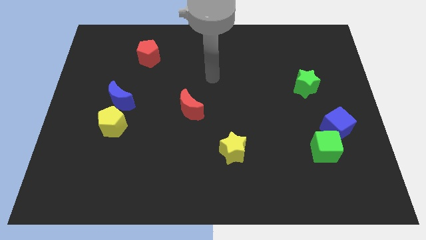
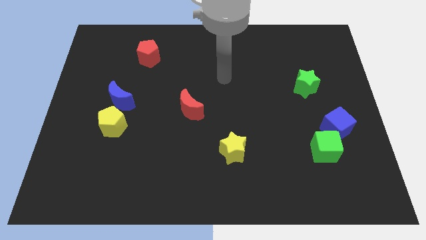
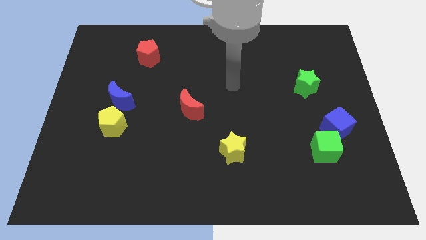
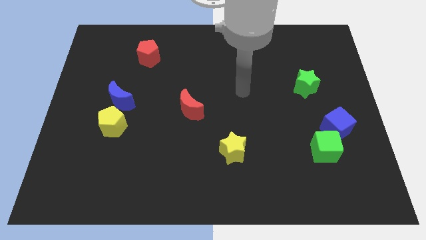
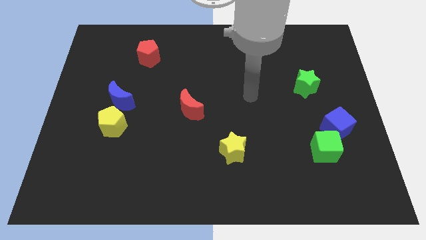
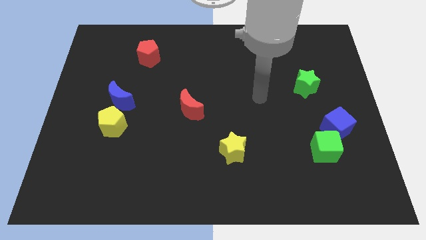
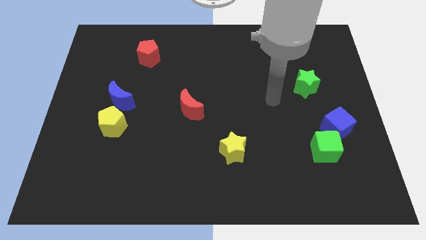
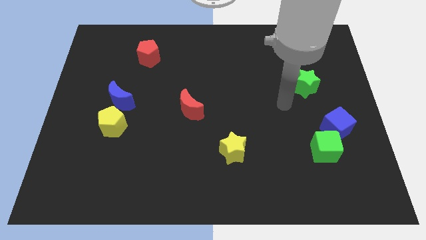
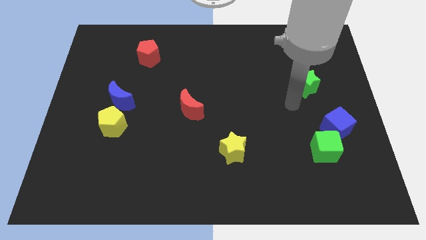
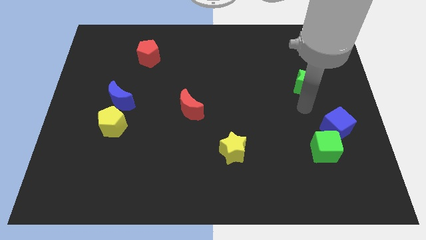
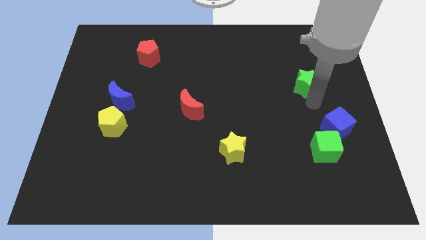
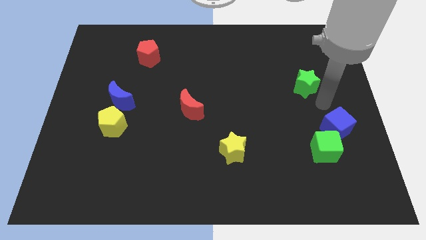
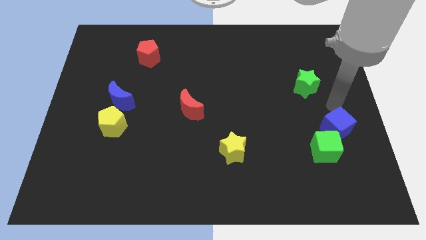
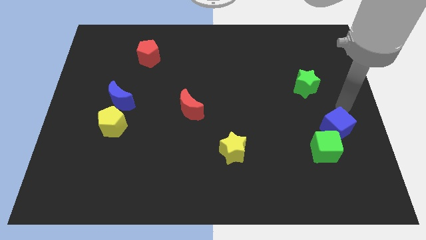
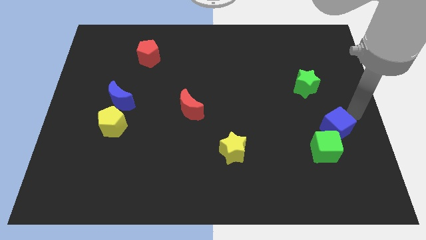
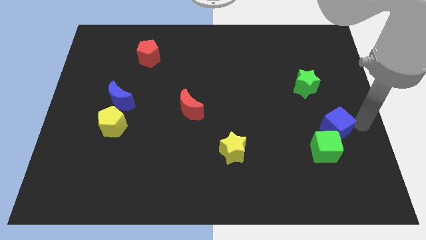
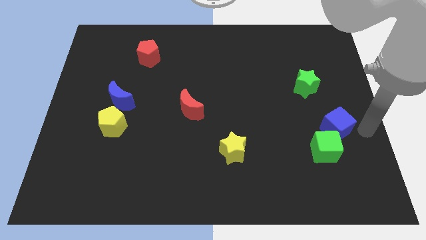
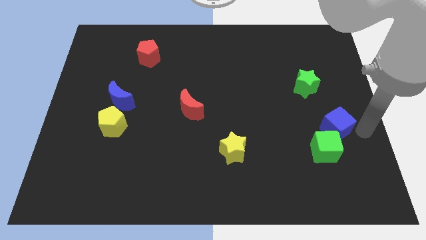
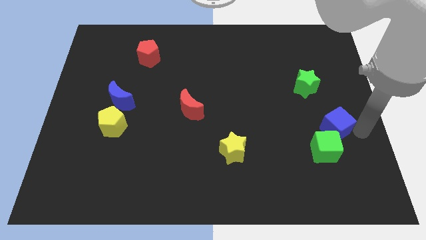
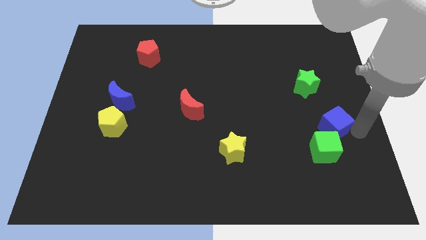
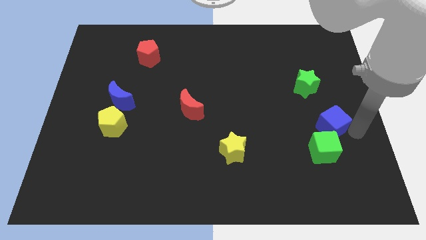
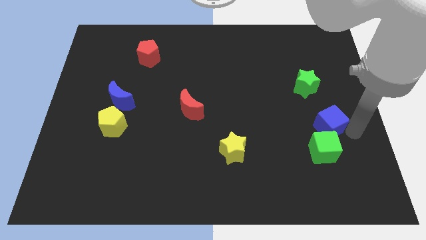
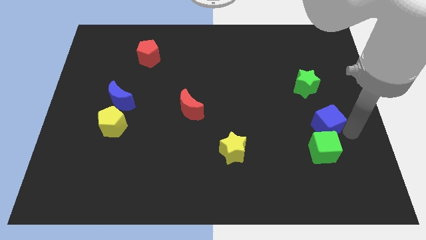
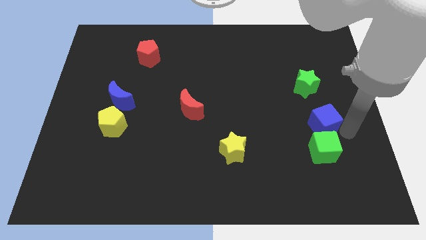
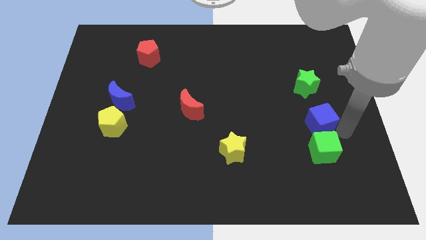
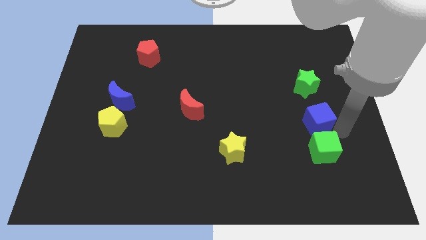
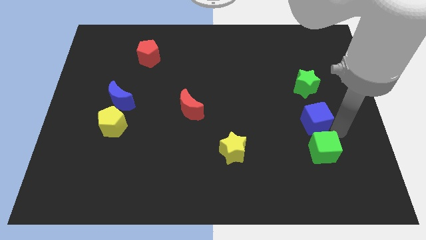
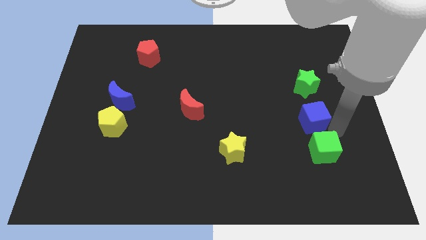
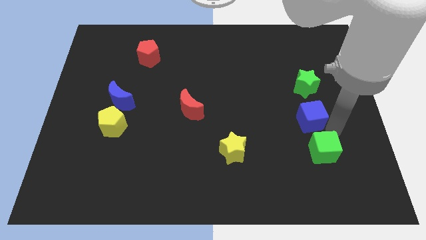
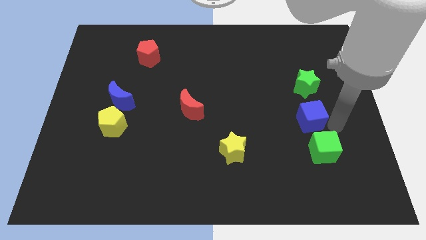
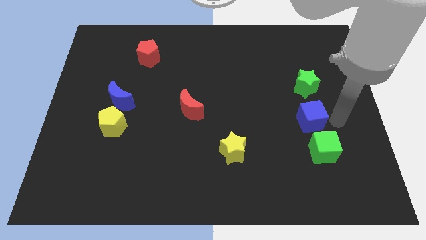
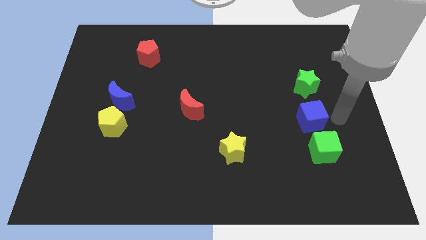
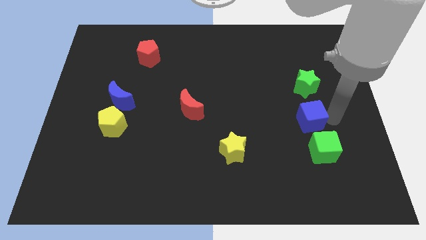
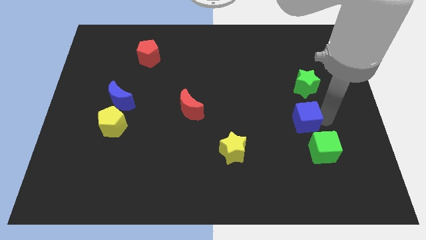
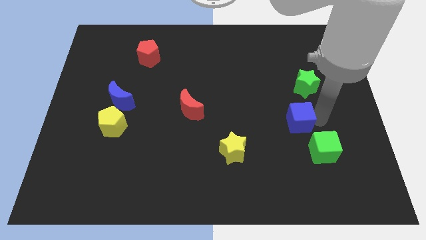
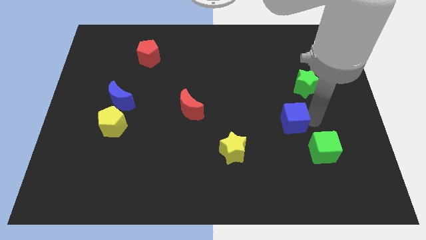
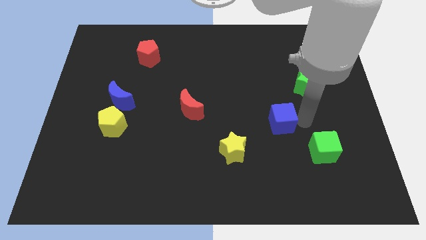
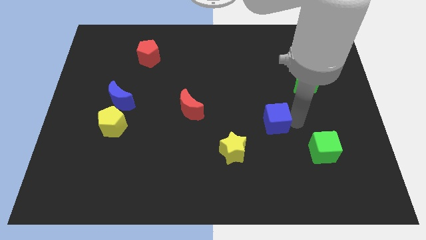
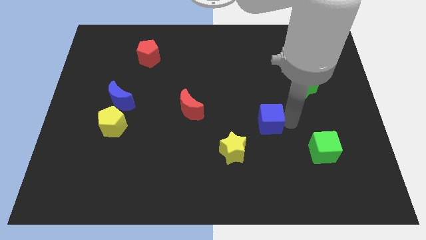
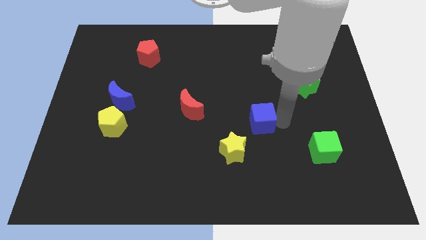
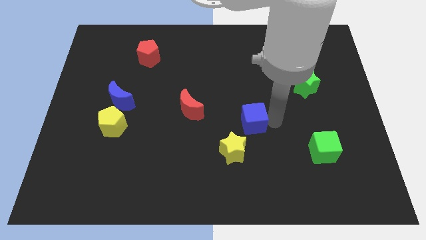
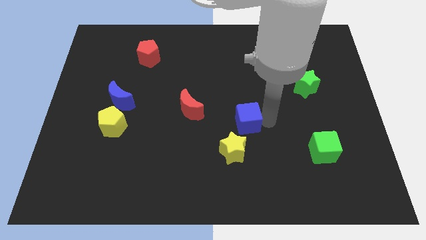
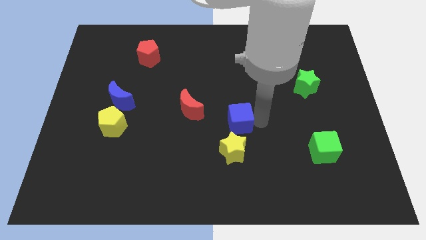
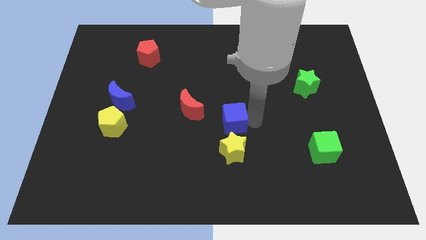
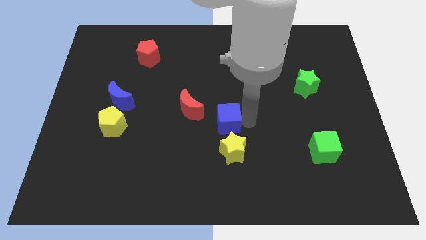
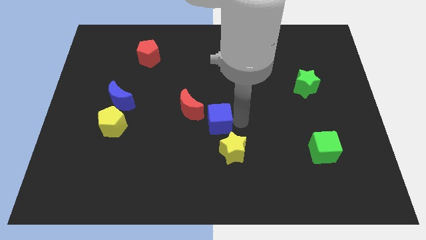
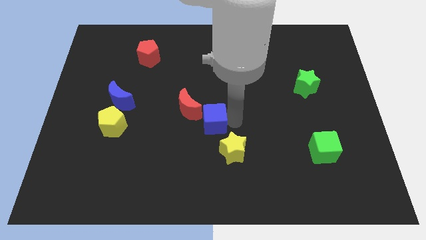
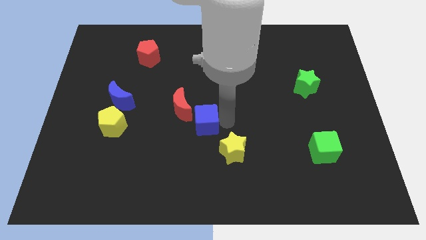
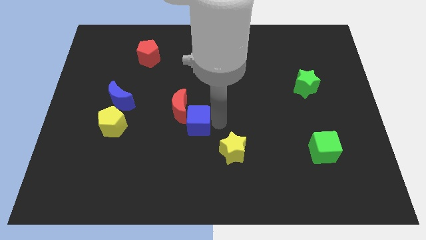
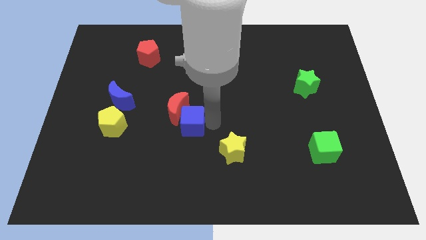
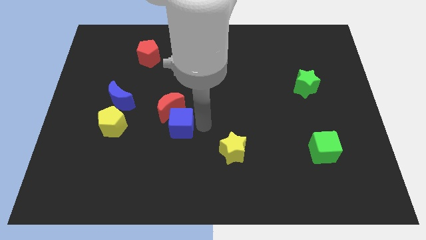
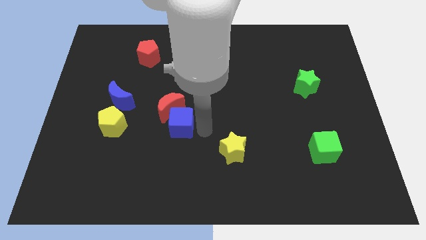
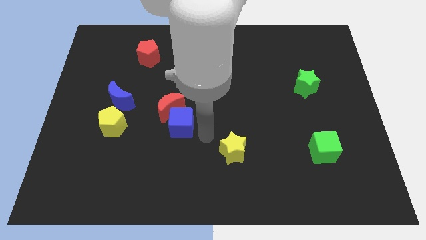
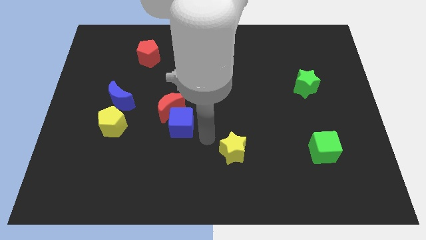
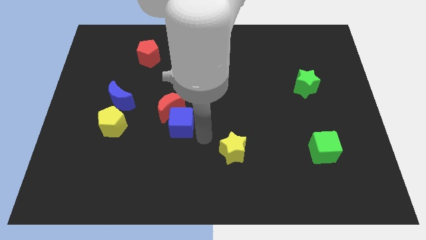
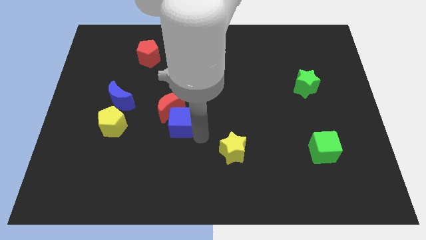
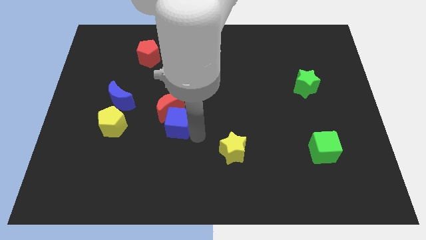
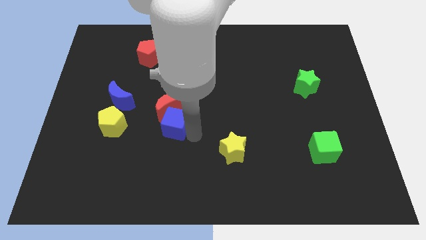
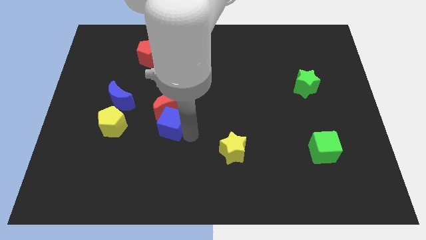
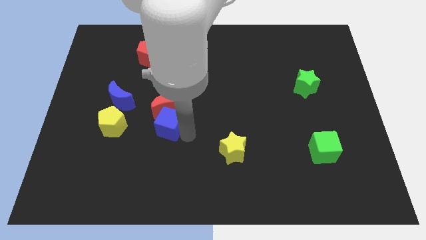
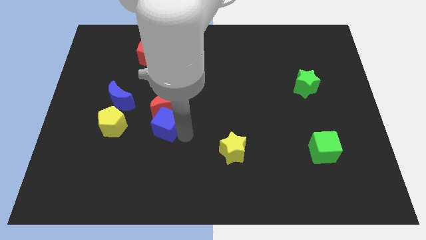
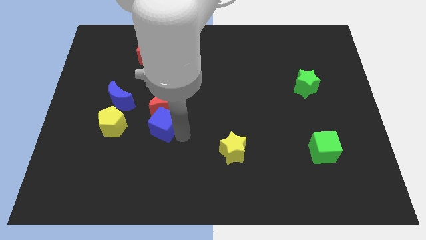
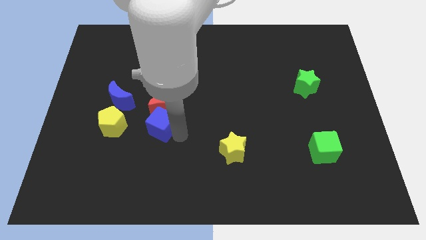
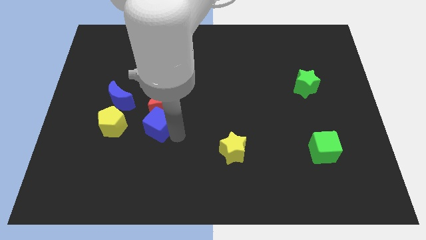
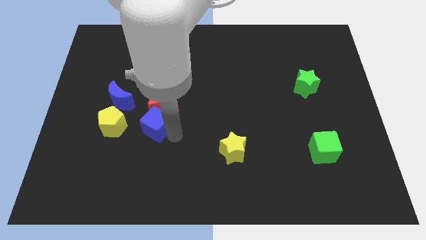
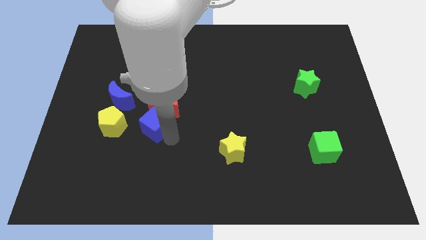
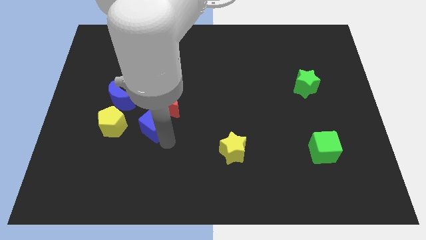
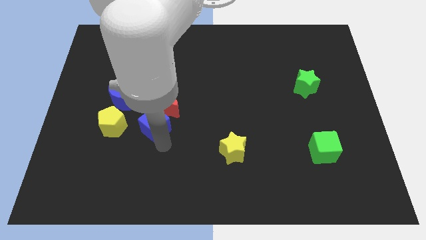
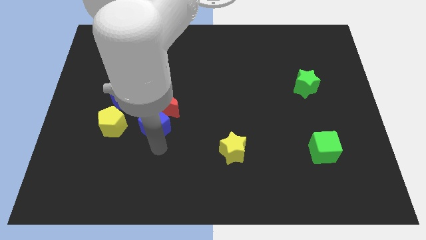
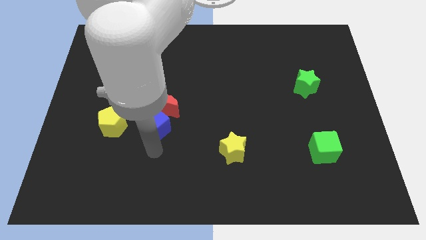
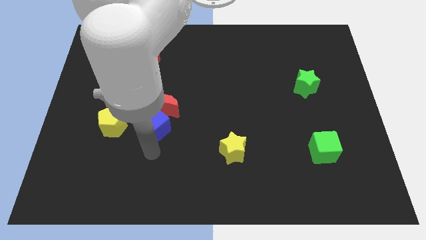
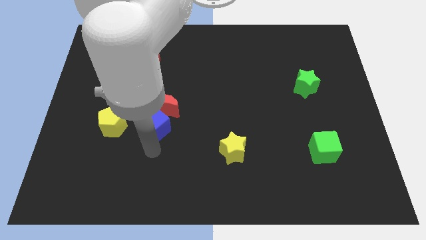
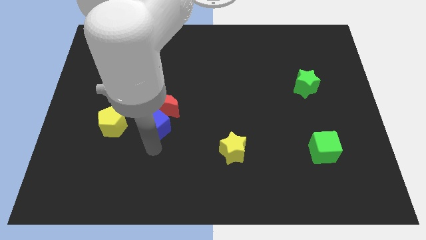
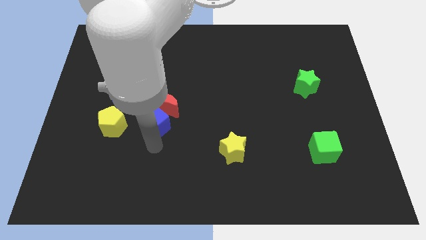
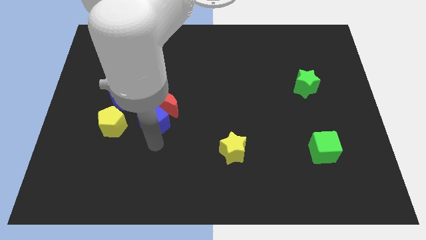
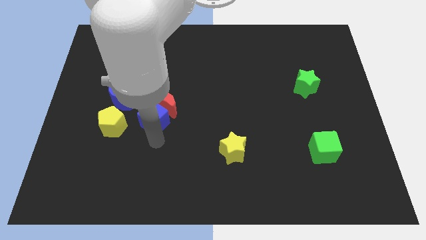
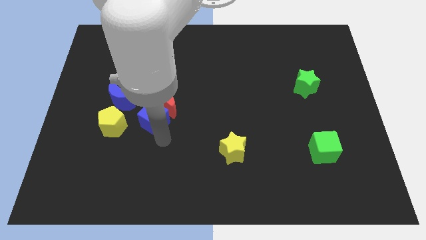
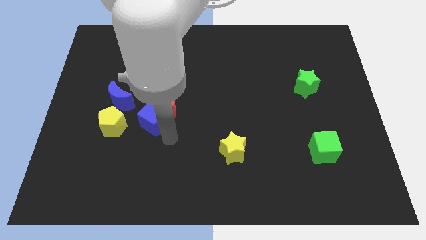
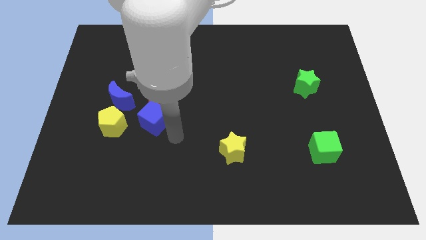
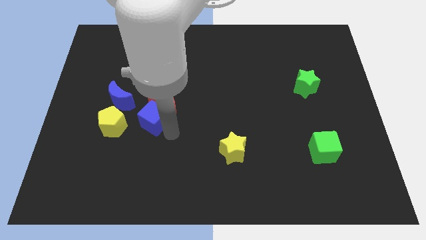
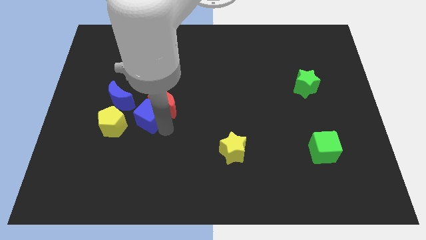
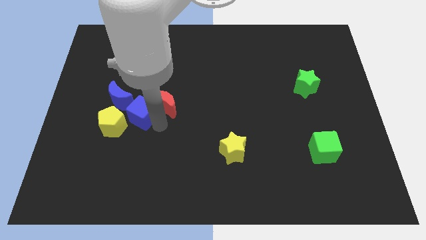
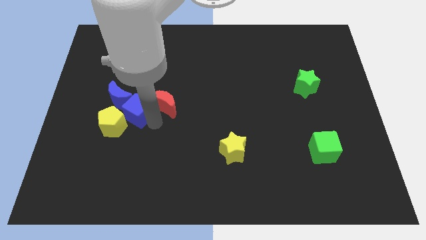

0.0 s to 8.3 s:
push the blue cube close to the blue moon
